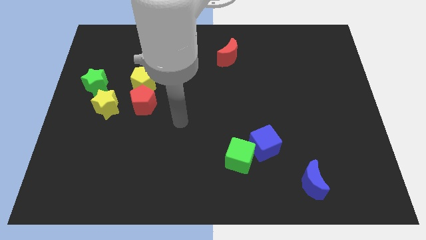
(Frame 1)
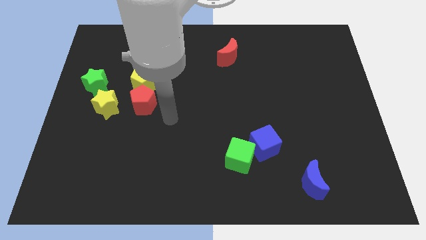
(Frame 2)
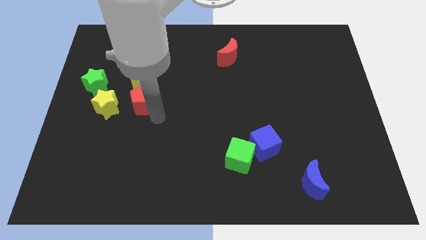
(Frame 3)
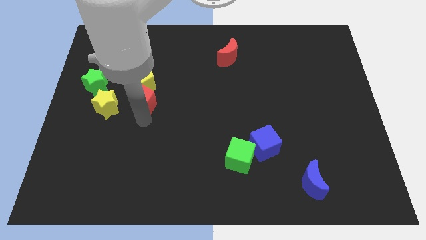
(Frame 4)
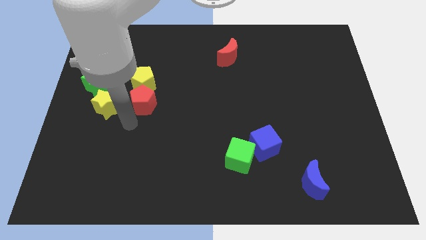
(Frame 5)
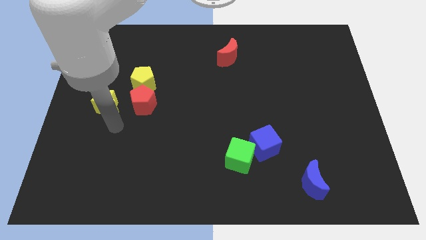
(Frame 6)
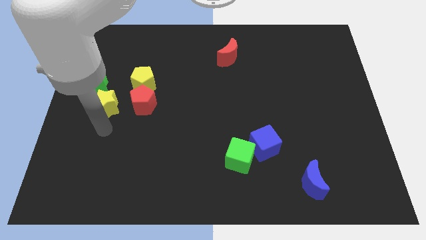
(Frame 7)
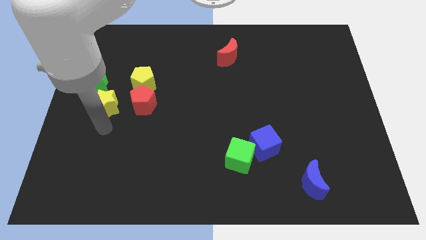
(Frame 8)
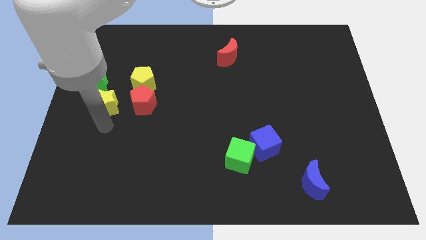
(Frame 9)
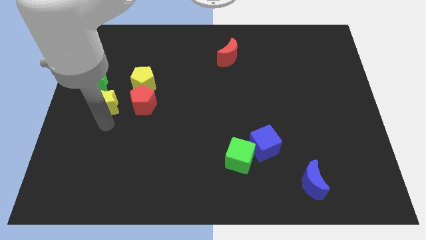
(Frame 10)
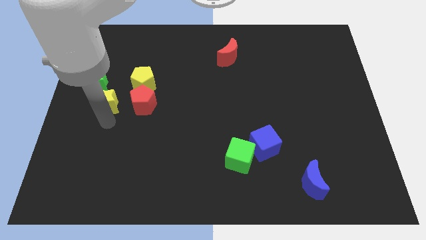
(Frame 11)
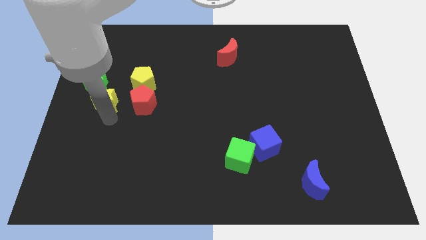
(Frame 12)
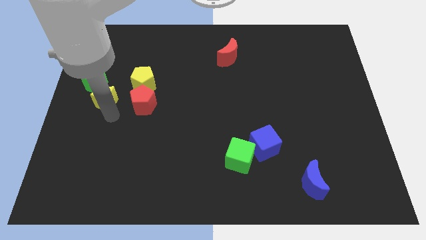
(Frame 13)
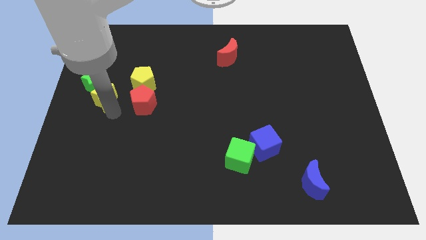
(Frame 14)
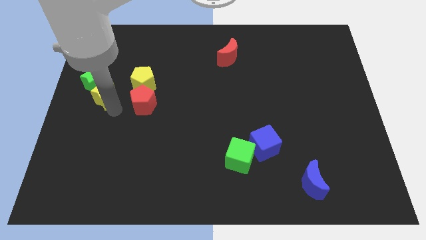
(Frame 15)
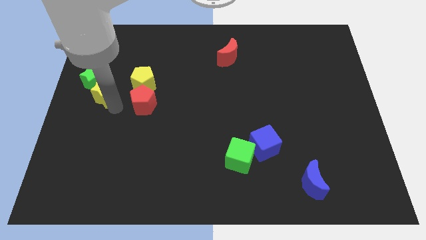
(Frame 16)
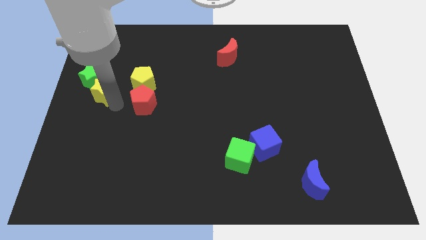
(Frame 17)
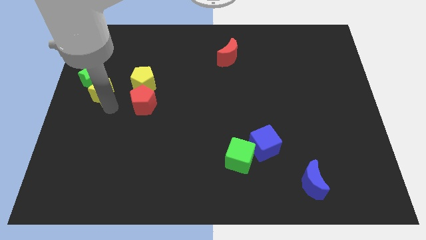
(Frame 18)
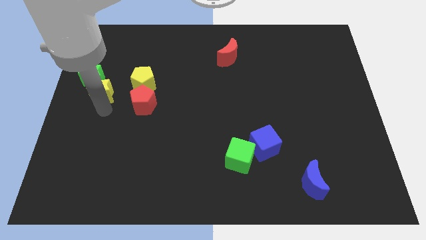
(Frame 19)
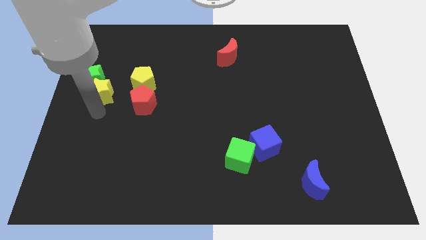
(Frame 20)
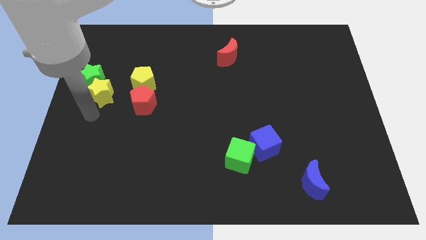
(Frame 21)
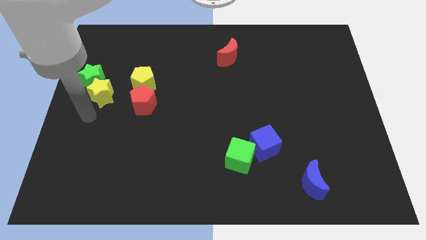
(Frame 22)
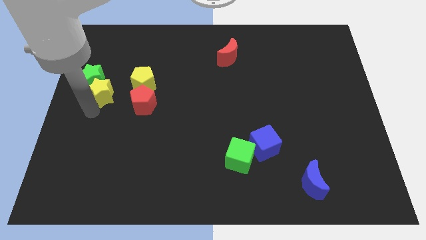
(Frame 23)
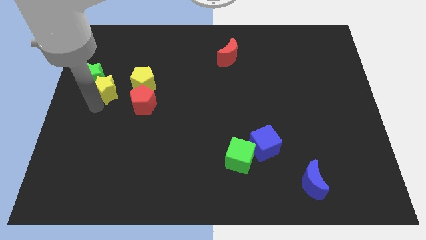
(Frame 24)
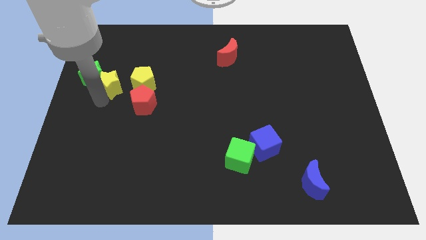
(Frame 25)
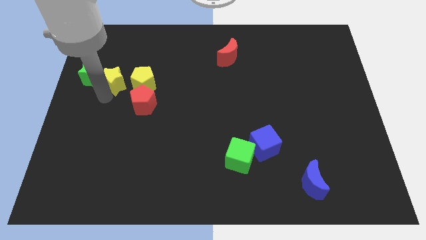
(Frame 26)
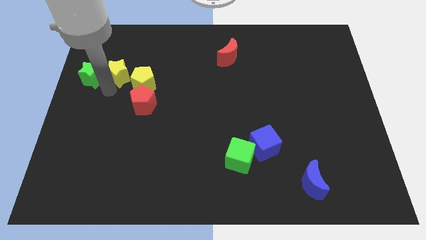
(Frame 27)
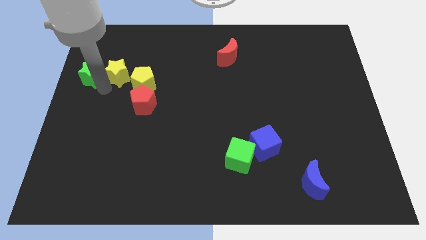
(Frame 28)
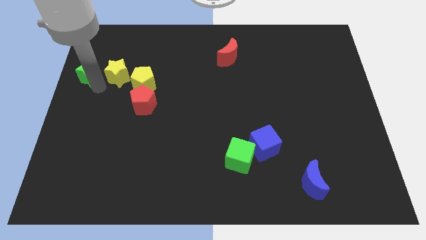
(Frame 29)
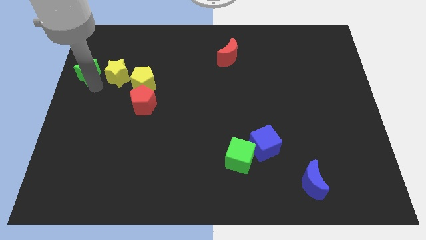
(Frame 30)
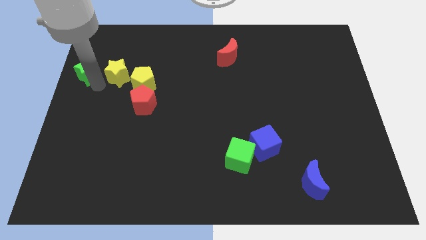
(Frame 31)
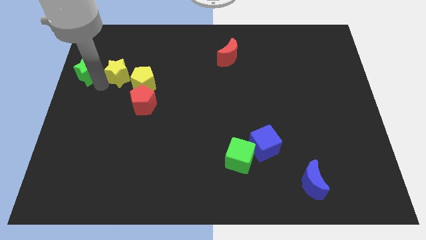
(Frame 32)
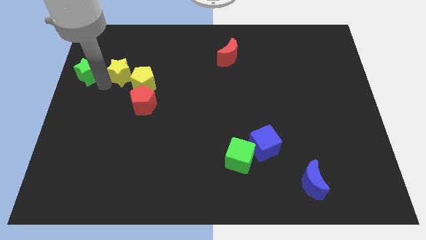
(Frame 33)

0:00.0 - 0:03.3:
push the yellow star upwards and then right a bit

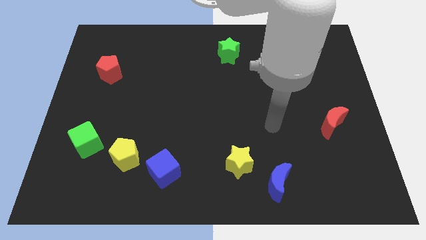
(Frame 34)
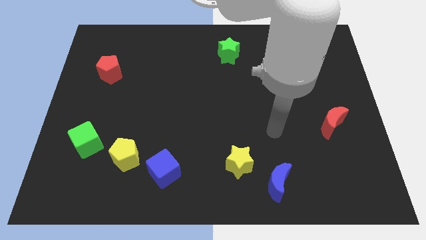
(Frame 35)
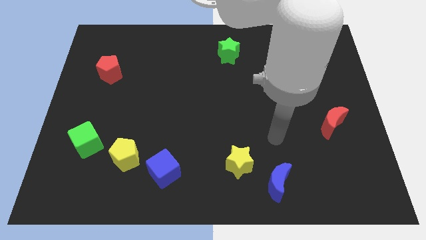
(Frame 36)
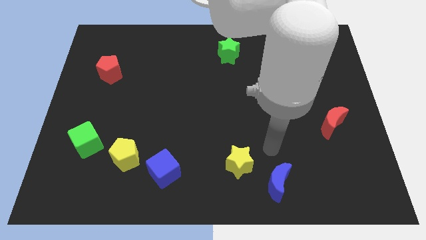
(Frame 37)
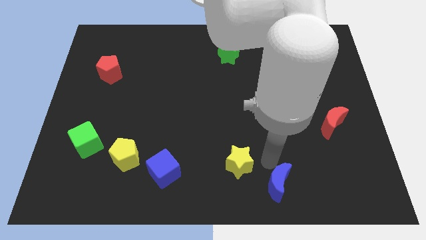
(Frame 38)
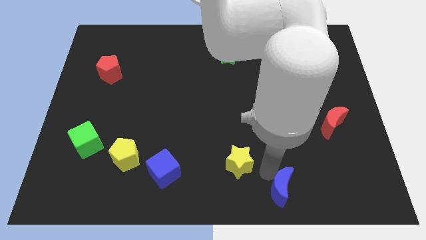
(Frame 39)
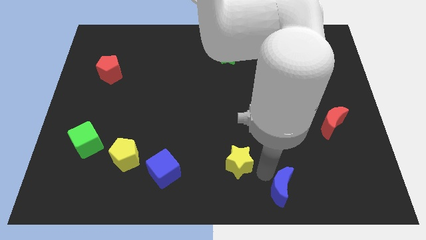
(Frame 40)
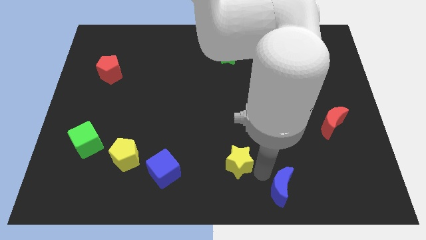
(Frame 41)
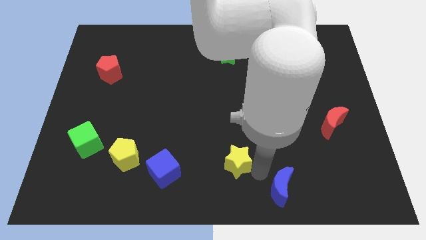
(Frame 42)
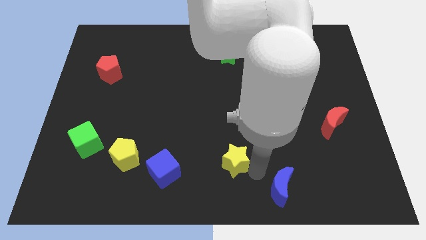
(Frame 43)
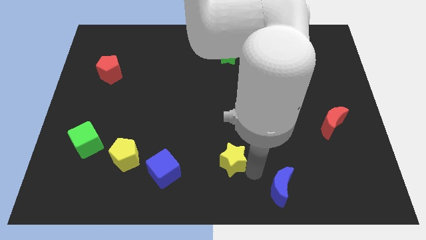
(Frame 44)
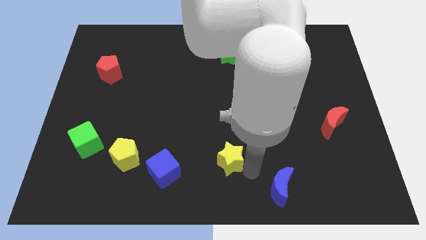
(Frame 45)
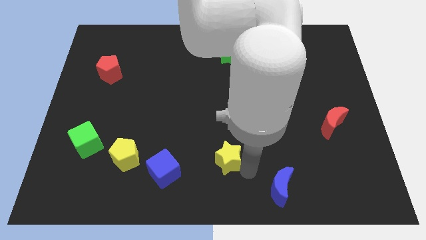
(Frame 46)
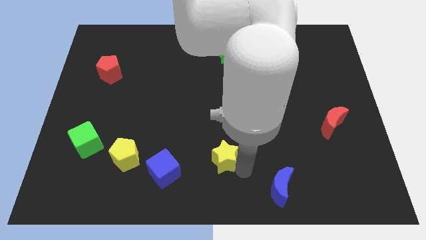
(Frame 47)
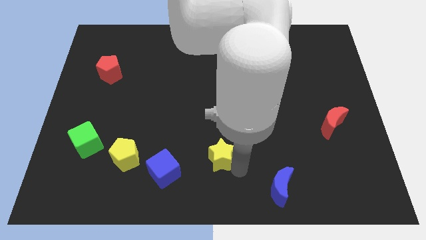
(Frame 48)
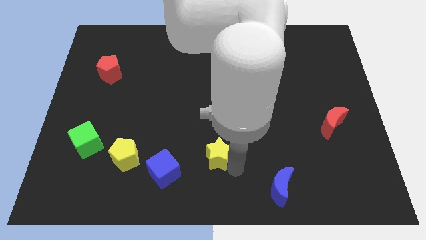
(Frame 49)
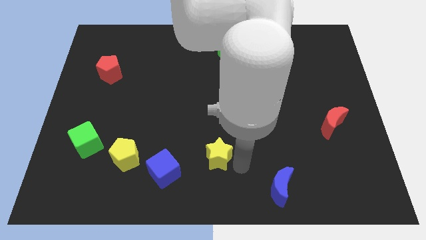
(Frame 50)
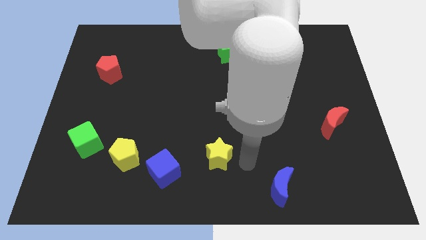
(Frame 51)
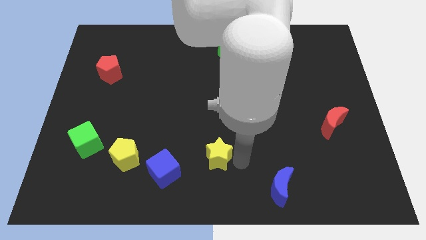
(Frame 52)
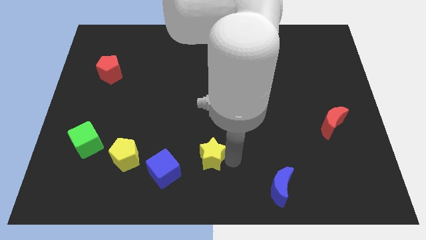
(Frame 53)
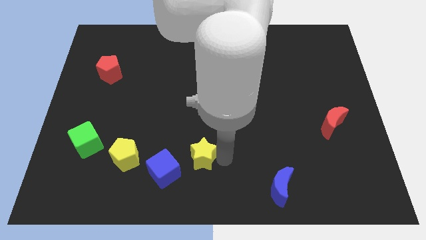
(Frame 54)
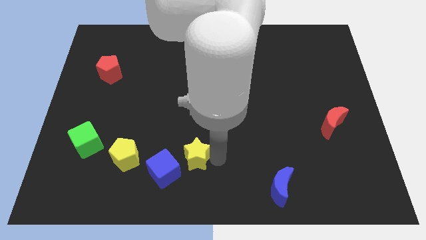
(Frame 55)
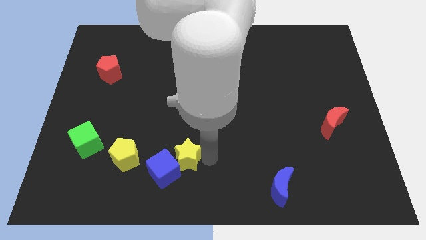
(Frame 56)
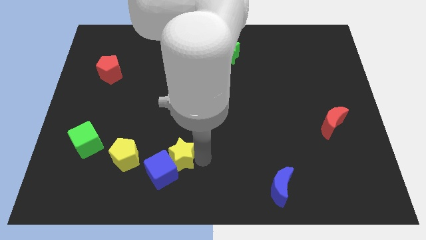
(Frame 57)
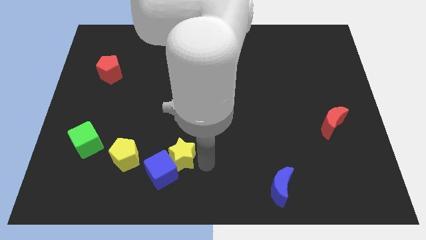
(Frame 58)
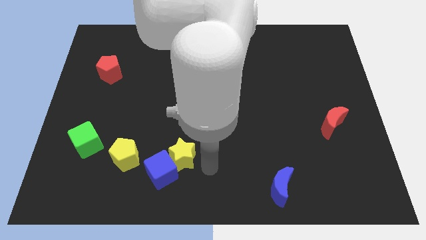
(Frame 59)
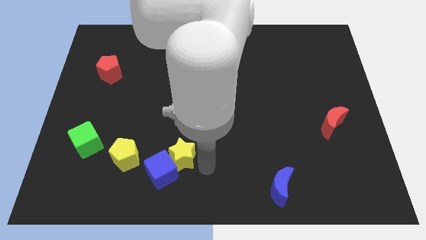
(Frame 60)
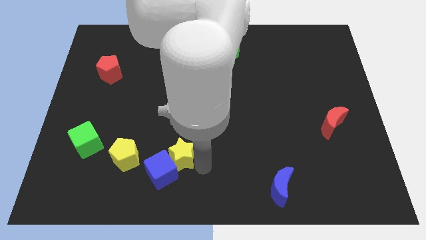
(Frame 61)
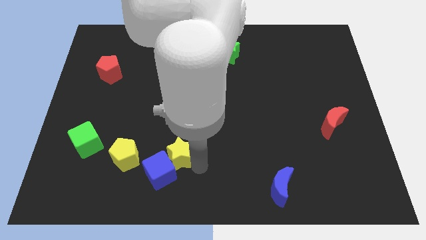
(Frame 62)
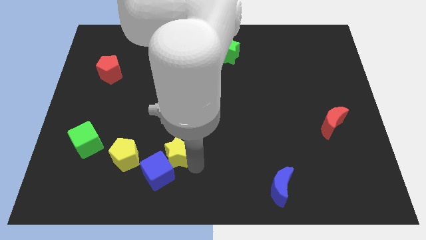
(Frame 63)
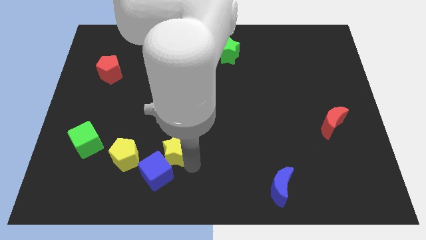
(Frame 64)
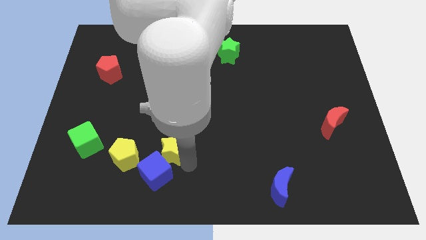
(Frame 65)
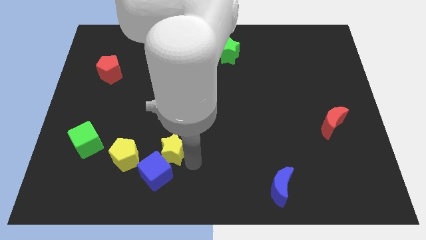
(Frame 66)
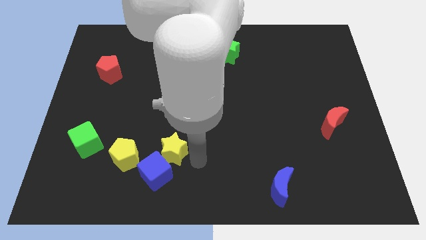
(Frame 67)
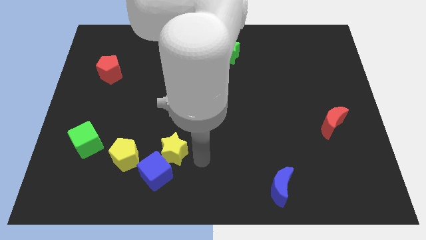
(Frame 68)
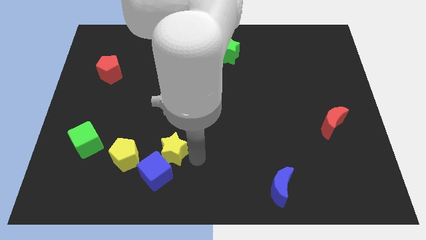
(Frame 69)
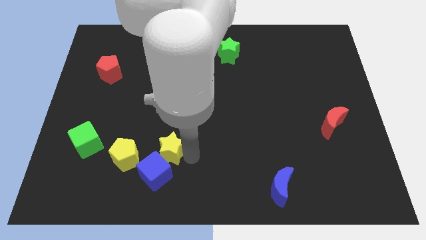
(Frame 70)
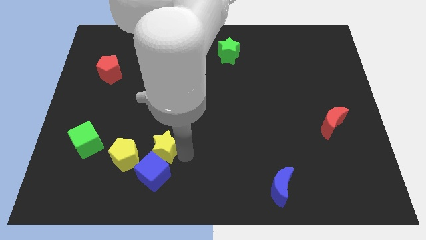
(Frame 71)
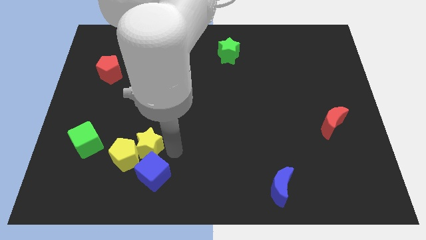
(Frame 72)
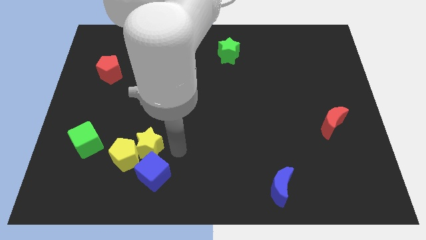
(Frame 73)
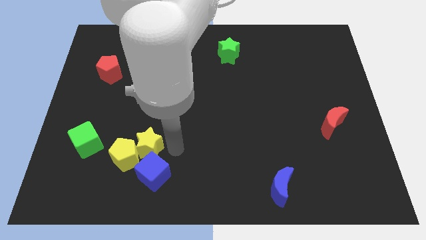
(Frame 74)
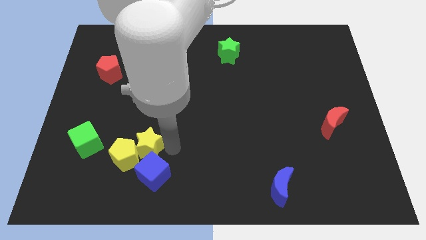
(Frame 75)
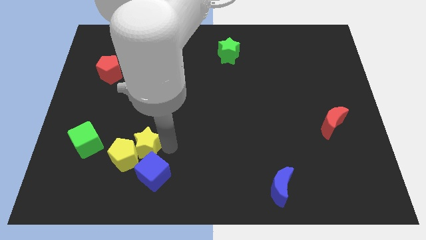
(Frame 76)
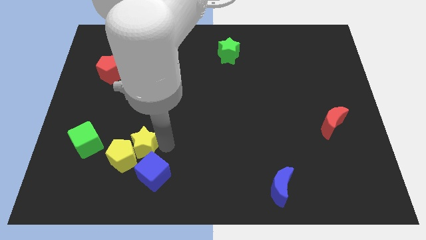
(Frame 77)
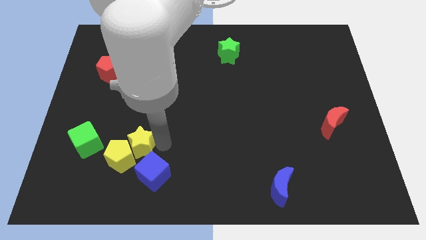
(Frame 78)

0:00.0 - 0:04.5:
push the yellow star to the left
